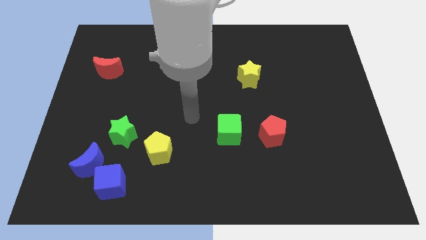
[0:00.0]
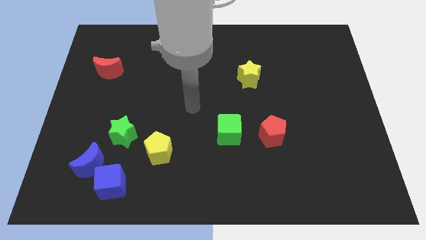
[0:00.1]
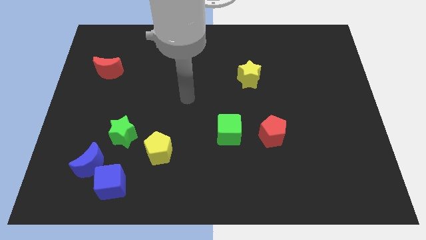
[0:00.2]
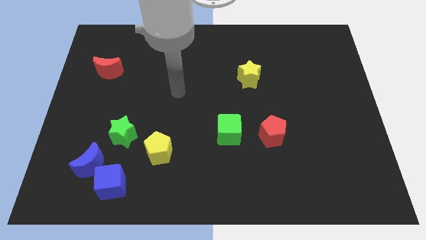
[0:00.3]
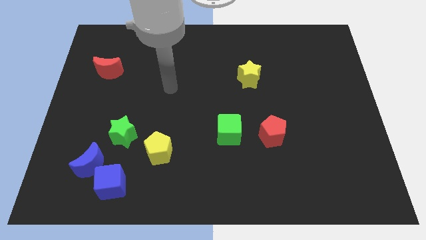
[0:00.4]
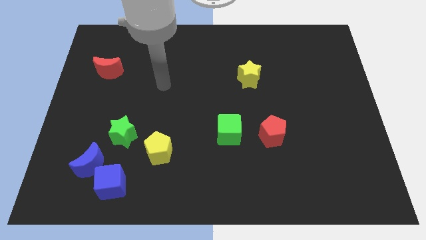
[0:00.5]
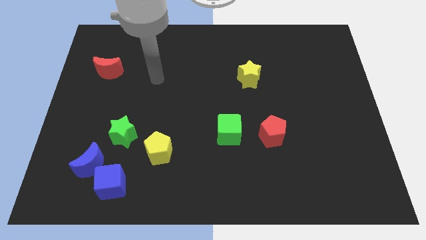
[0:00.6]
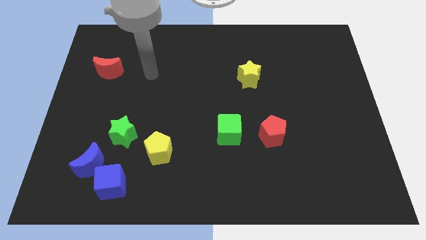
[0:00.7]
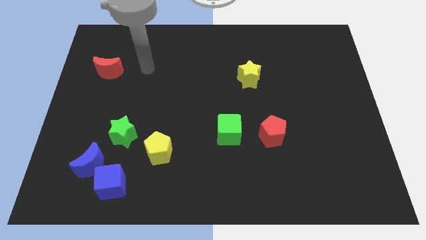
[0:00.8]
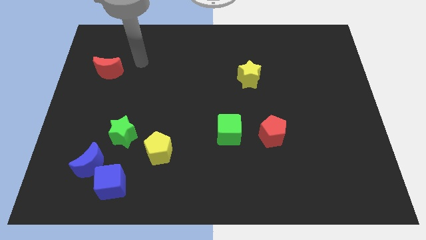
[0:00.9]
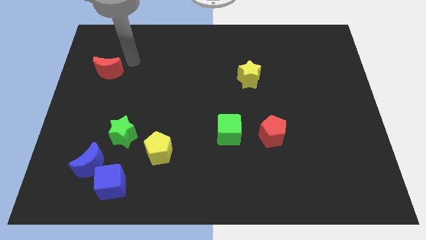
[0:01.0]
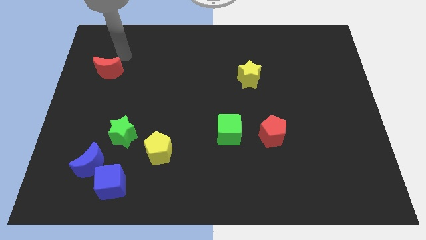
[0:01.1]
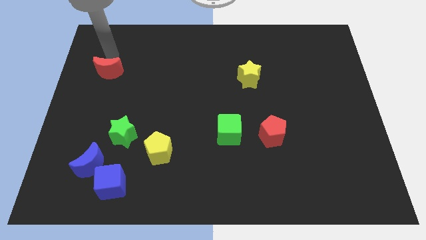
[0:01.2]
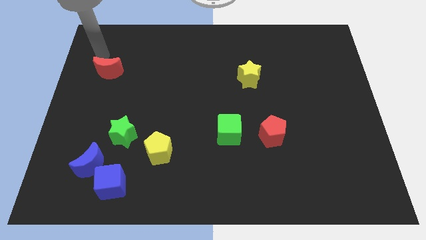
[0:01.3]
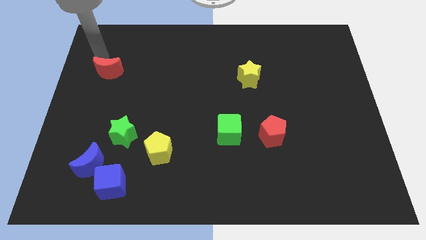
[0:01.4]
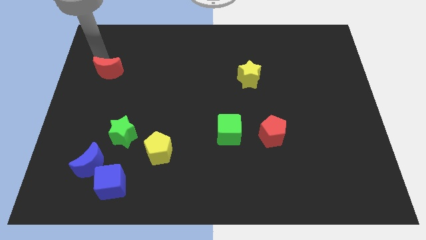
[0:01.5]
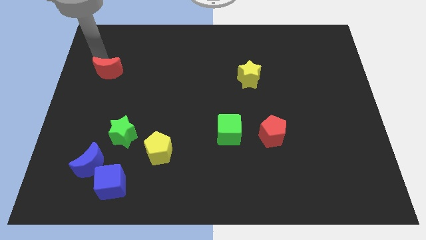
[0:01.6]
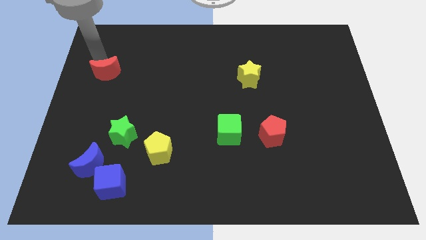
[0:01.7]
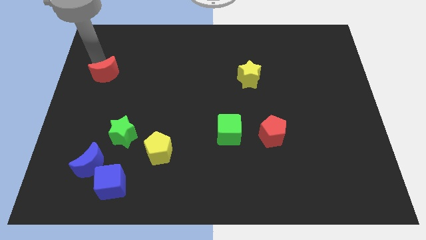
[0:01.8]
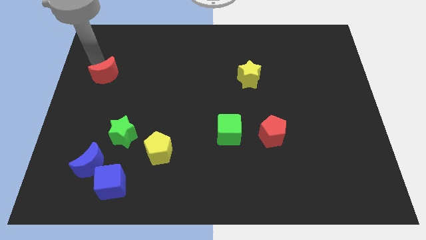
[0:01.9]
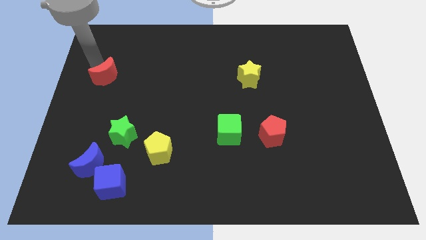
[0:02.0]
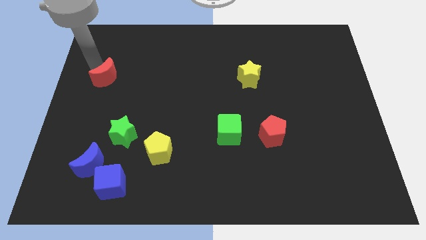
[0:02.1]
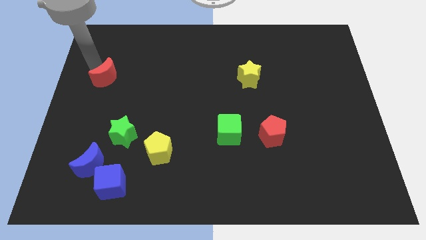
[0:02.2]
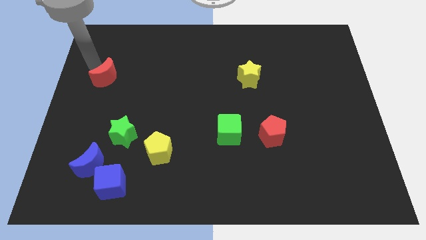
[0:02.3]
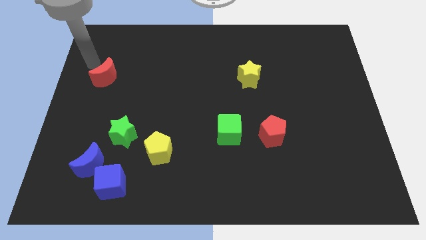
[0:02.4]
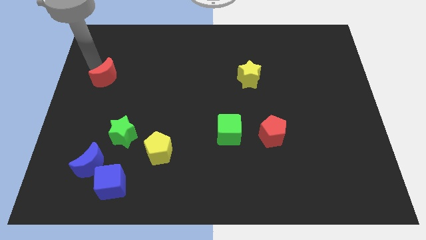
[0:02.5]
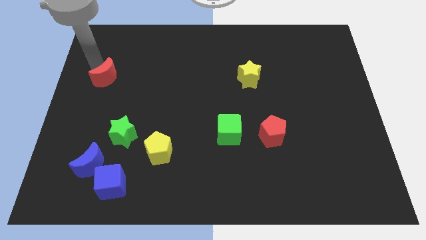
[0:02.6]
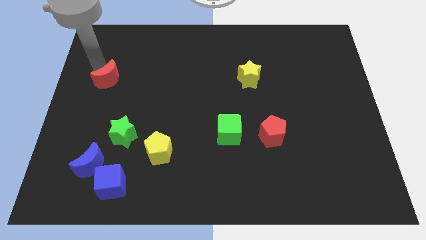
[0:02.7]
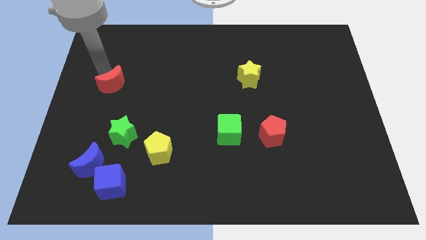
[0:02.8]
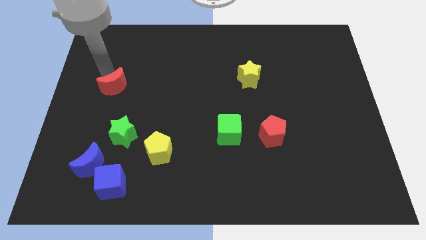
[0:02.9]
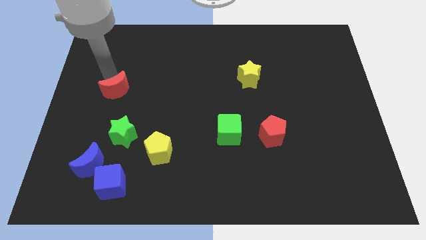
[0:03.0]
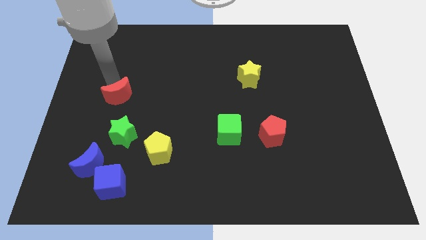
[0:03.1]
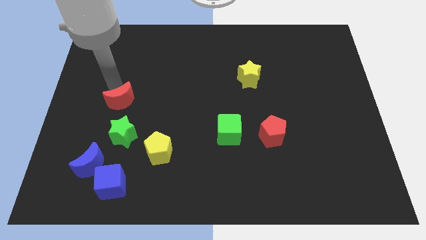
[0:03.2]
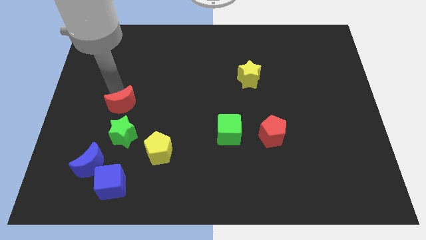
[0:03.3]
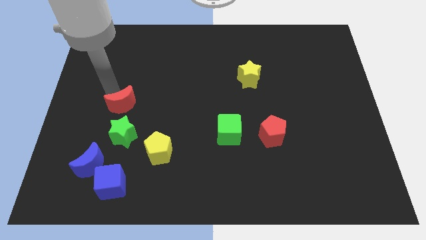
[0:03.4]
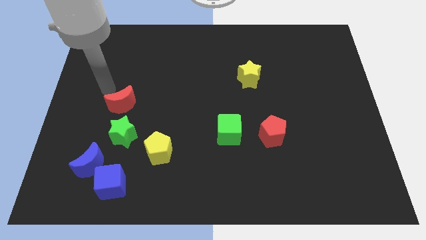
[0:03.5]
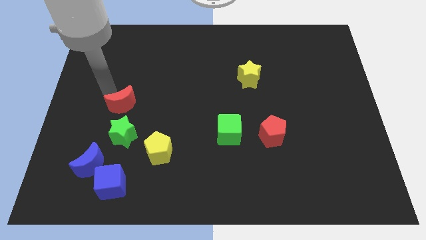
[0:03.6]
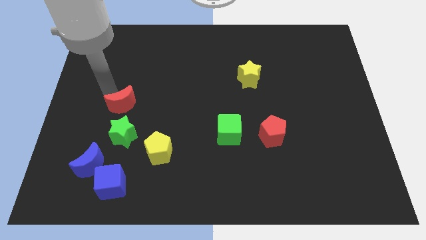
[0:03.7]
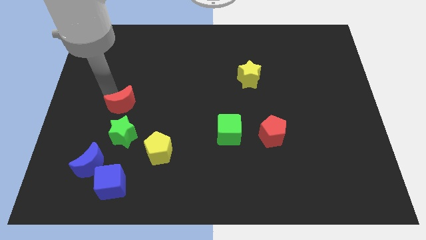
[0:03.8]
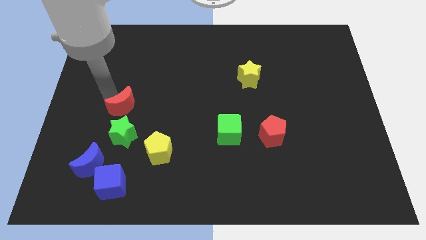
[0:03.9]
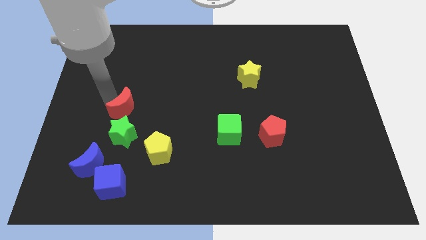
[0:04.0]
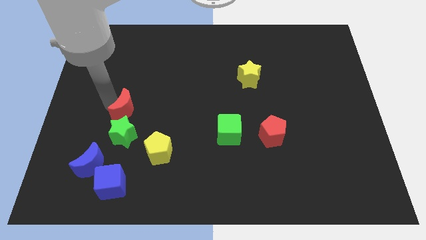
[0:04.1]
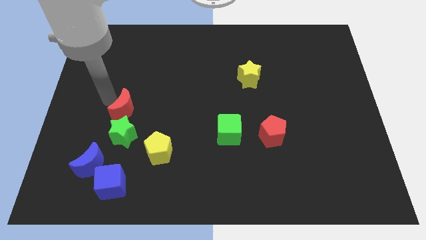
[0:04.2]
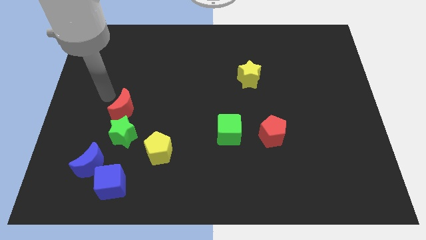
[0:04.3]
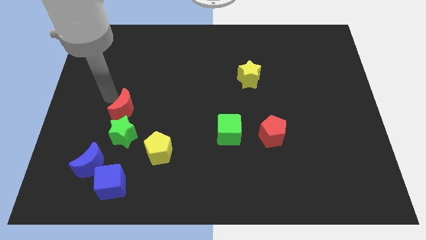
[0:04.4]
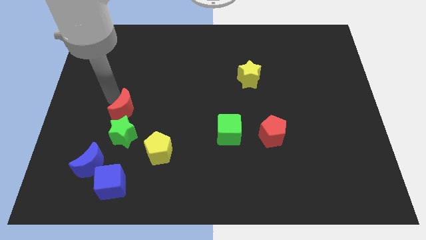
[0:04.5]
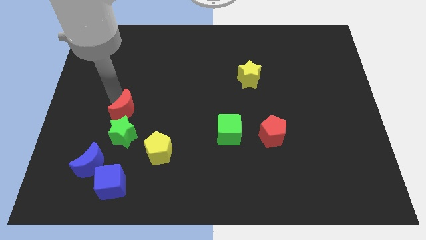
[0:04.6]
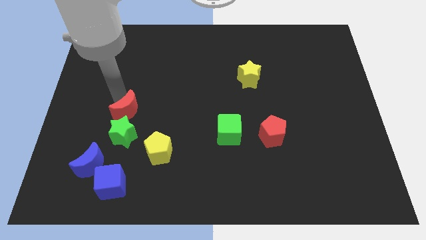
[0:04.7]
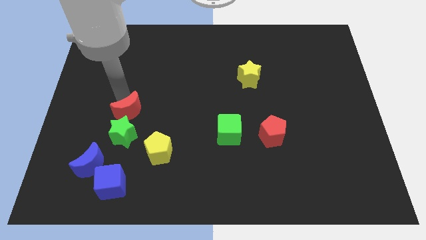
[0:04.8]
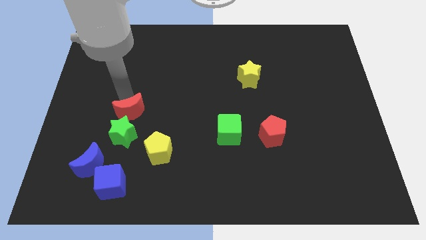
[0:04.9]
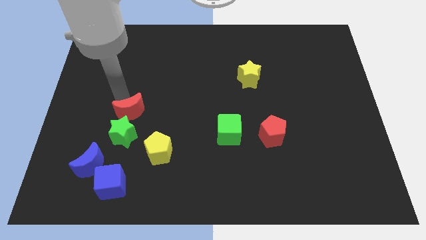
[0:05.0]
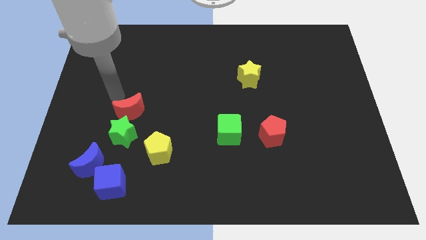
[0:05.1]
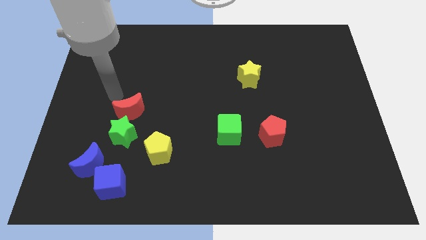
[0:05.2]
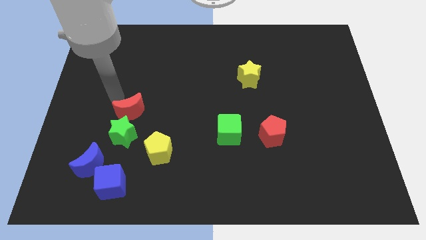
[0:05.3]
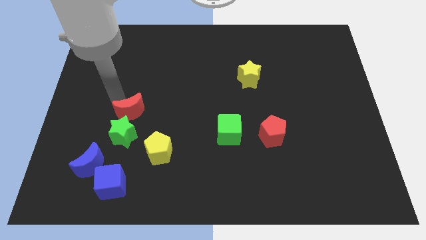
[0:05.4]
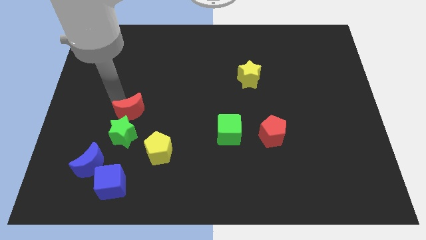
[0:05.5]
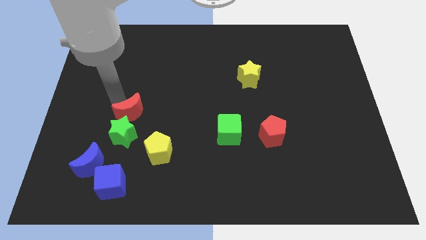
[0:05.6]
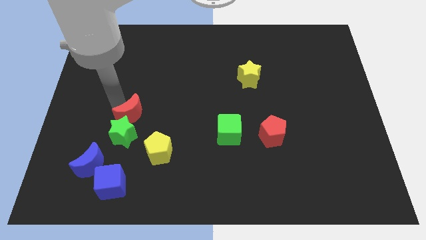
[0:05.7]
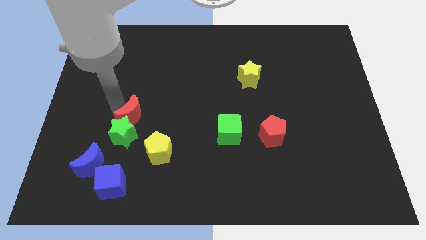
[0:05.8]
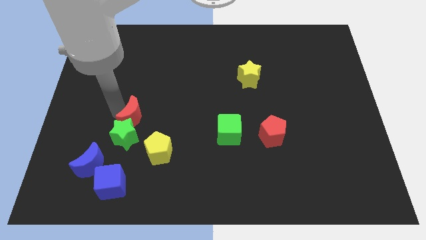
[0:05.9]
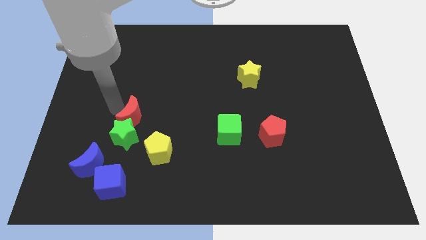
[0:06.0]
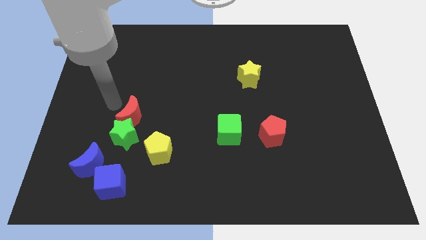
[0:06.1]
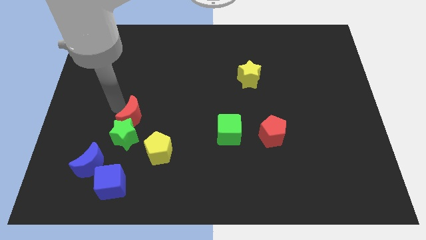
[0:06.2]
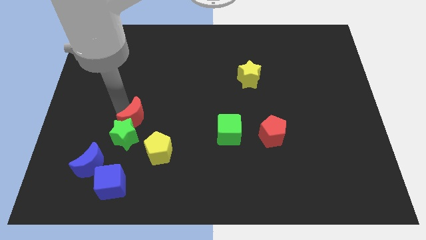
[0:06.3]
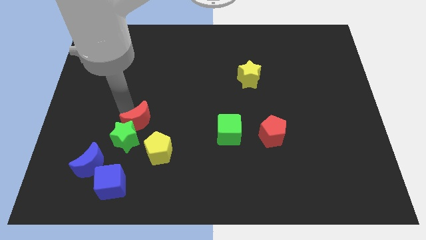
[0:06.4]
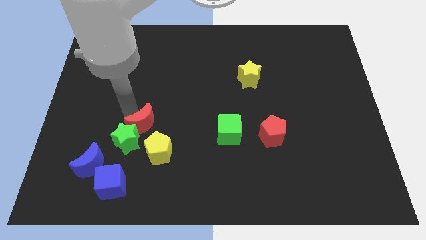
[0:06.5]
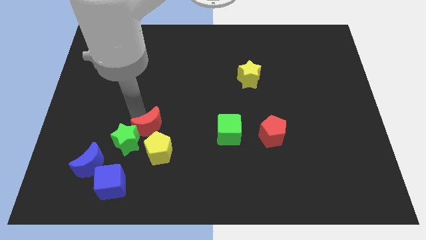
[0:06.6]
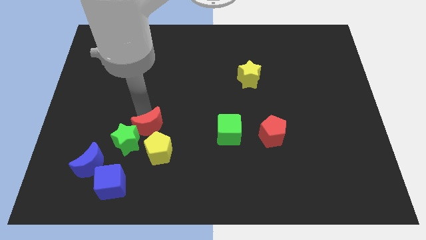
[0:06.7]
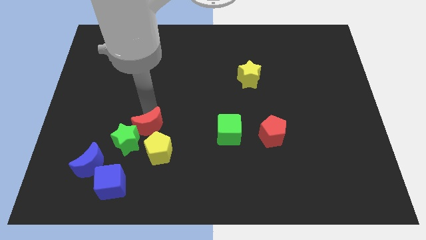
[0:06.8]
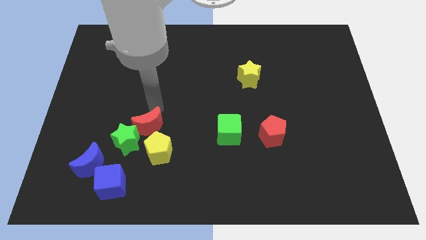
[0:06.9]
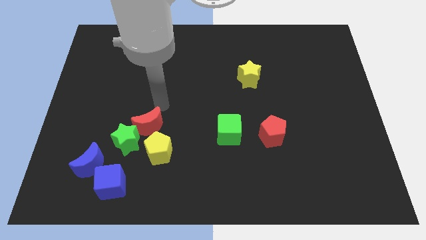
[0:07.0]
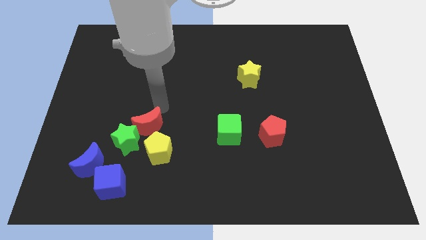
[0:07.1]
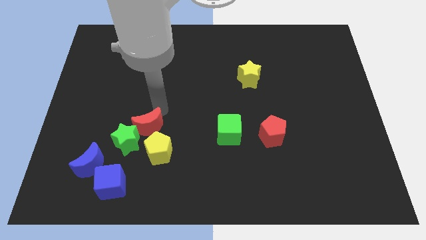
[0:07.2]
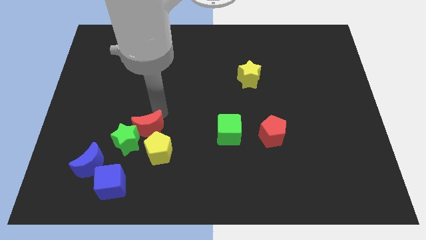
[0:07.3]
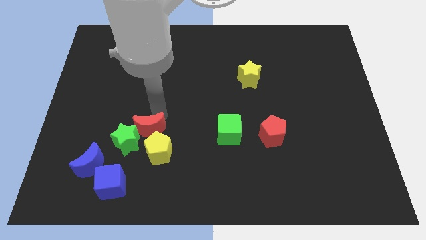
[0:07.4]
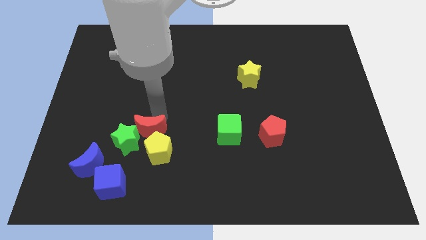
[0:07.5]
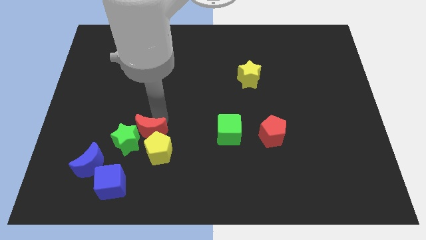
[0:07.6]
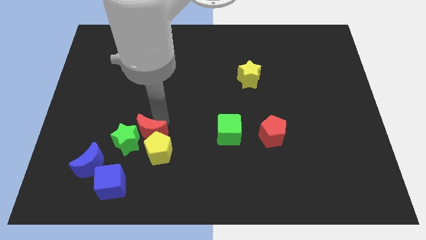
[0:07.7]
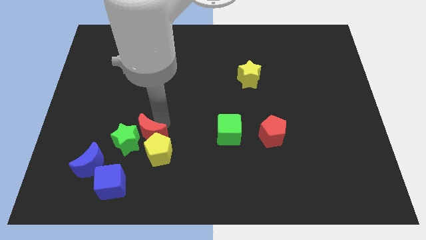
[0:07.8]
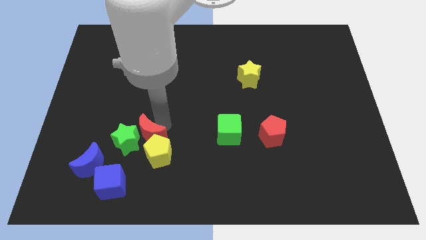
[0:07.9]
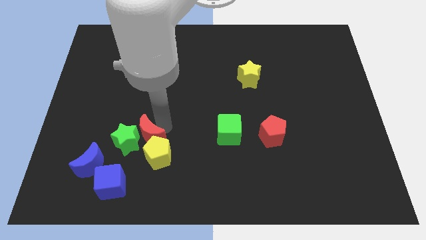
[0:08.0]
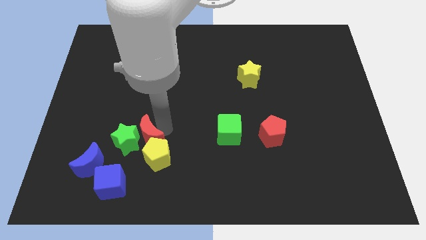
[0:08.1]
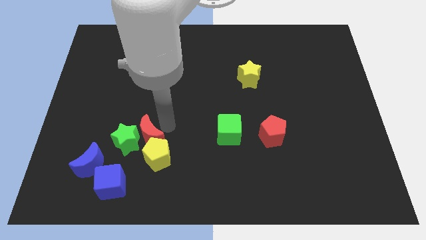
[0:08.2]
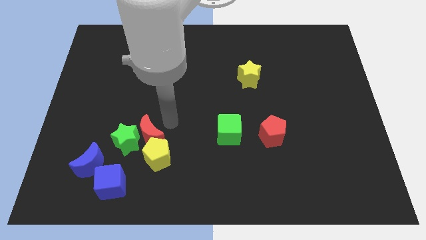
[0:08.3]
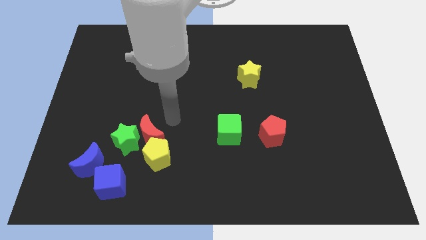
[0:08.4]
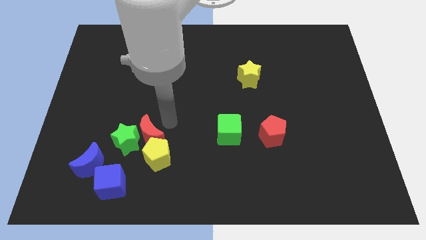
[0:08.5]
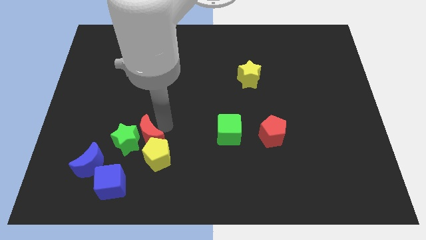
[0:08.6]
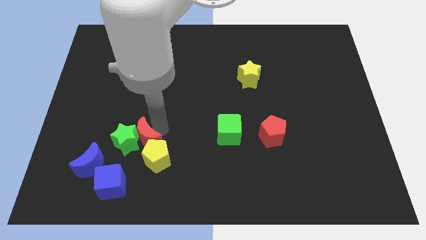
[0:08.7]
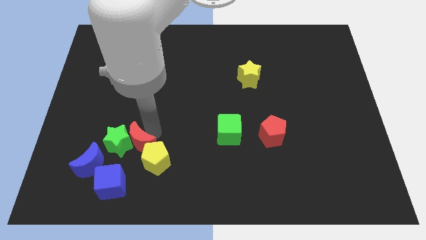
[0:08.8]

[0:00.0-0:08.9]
slide the red moon to the top right side of the blue cube
